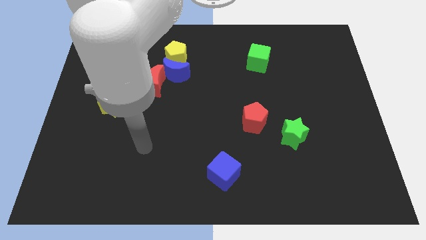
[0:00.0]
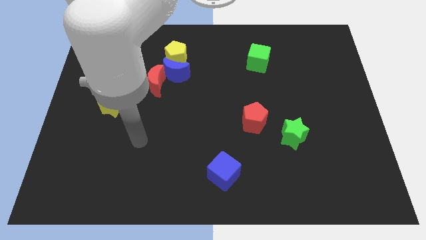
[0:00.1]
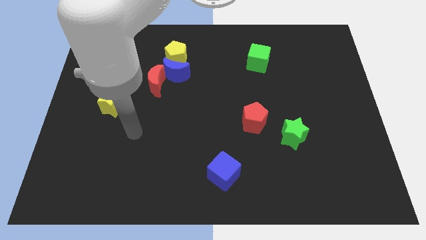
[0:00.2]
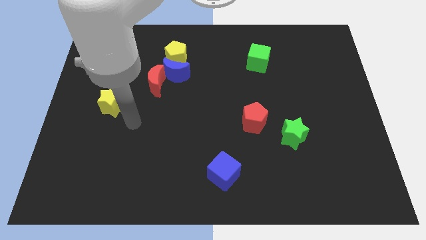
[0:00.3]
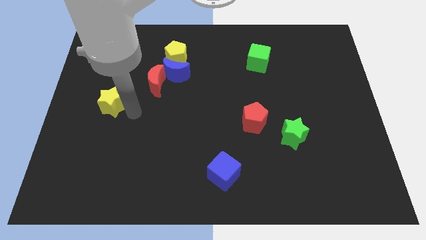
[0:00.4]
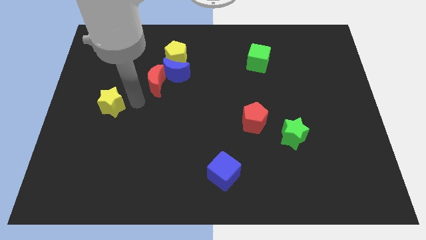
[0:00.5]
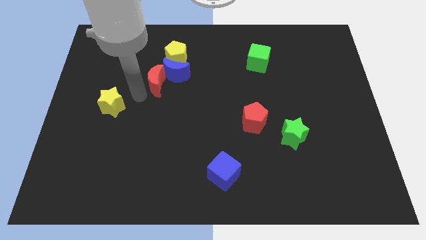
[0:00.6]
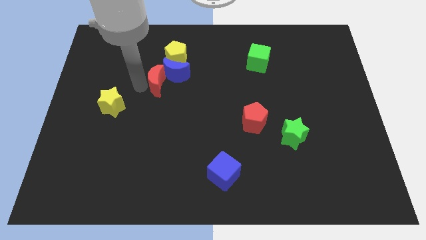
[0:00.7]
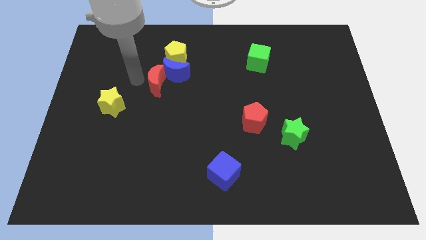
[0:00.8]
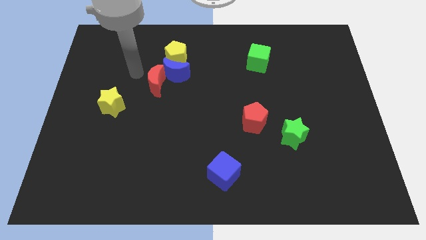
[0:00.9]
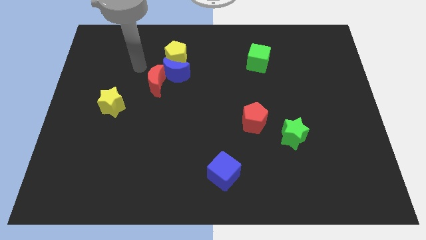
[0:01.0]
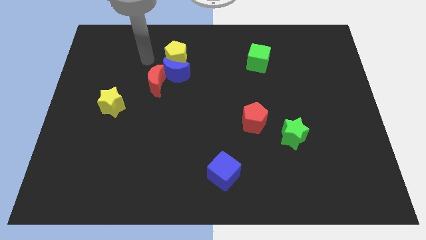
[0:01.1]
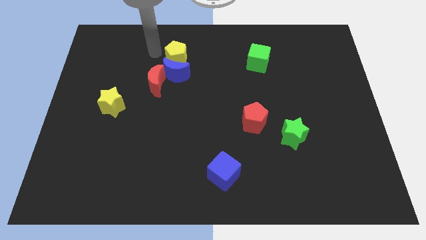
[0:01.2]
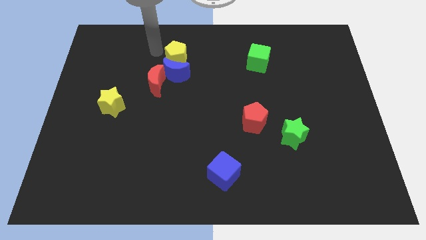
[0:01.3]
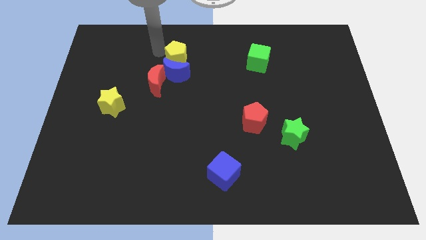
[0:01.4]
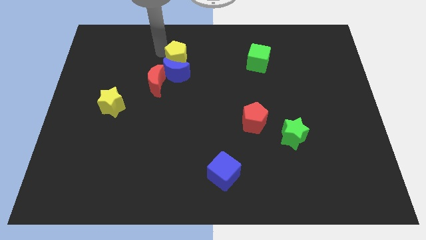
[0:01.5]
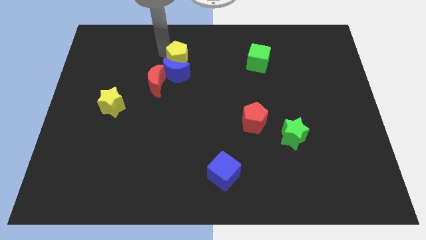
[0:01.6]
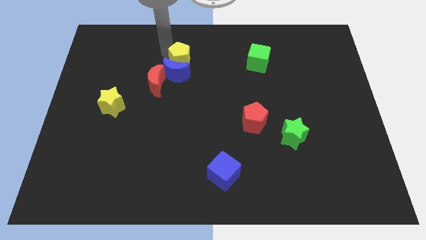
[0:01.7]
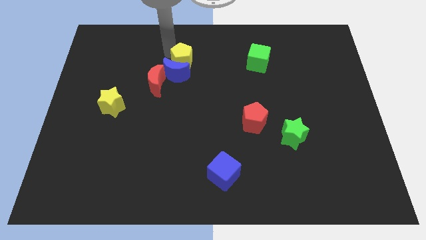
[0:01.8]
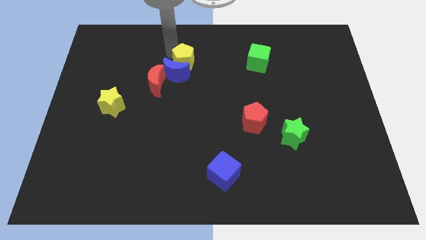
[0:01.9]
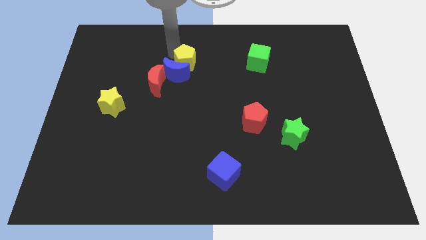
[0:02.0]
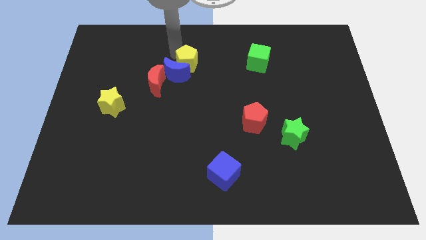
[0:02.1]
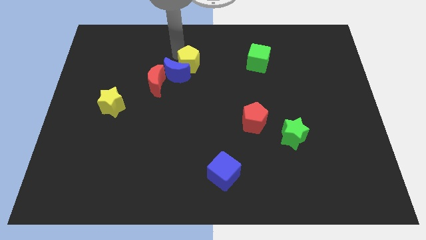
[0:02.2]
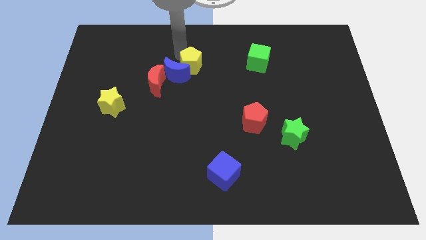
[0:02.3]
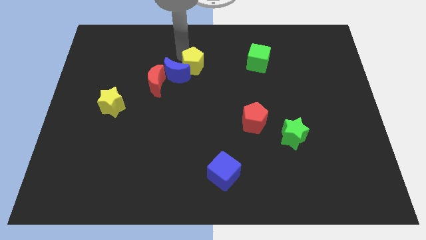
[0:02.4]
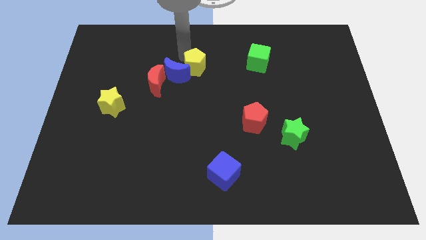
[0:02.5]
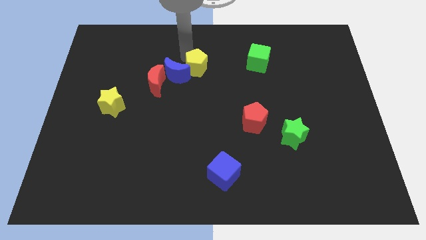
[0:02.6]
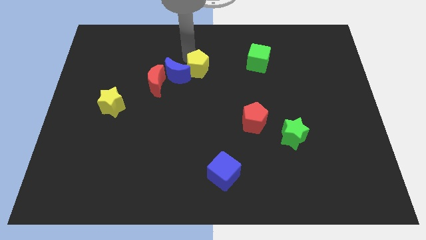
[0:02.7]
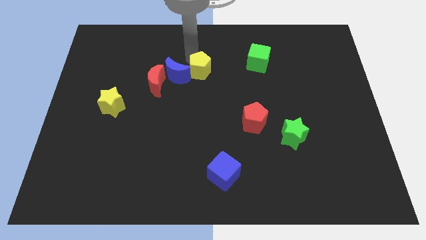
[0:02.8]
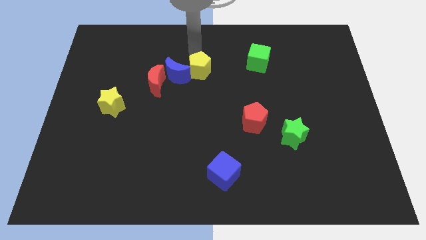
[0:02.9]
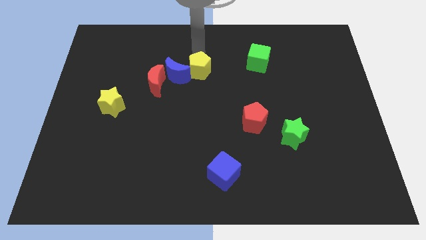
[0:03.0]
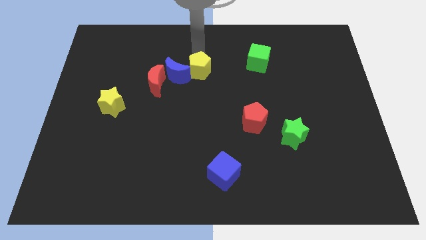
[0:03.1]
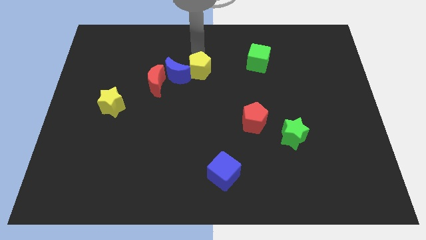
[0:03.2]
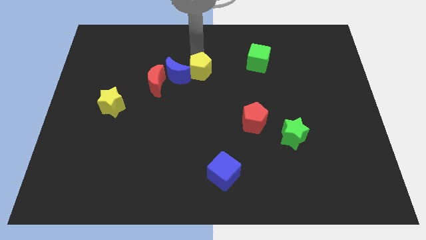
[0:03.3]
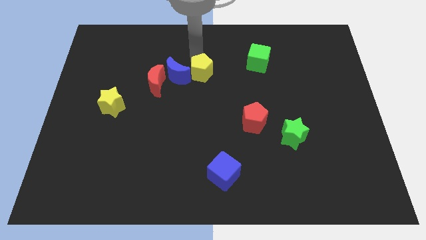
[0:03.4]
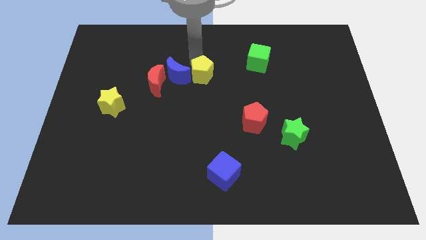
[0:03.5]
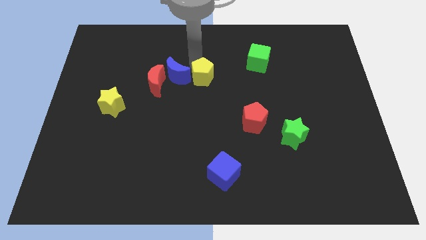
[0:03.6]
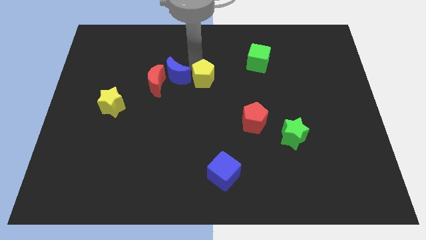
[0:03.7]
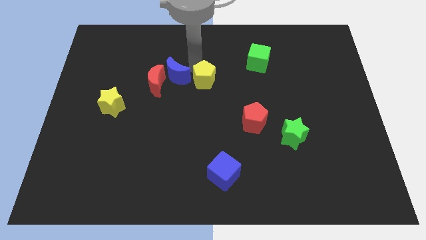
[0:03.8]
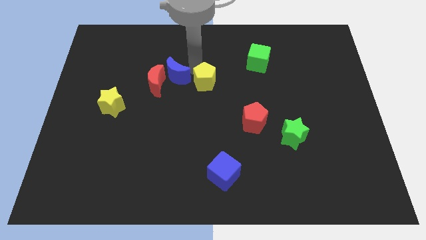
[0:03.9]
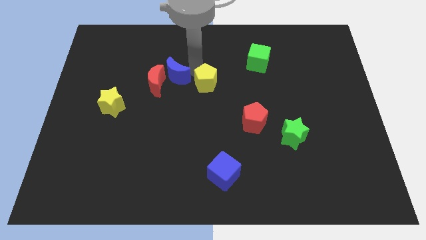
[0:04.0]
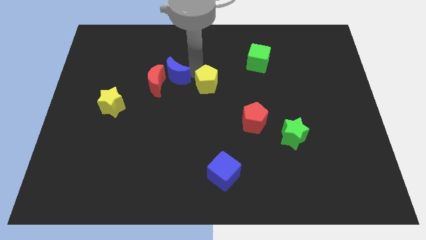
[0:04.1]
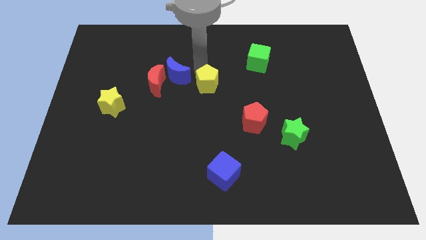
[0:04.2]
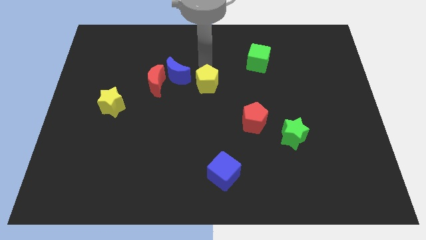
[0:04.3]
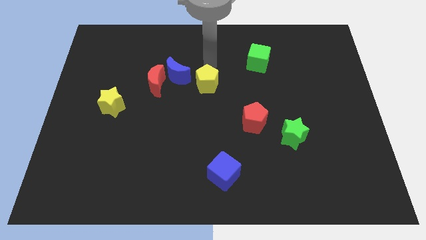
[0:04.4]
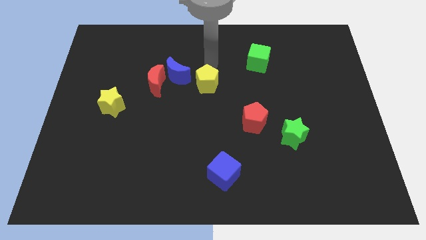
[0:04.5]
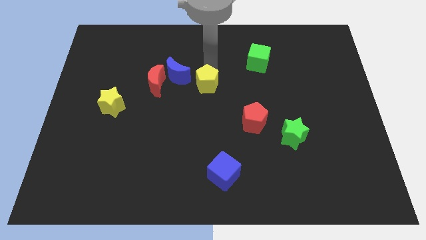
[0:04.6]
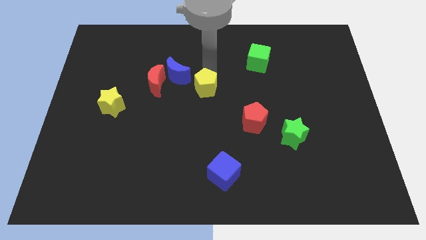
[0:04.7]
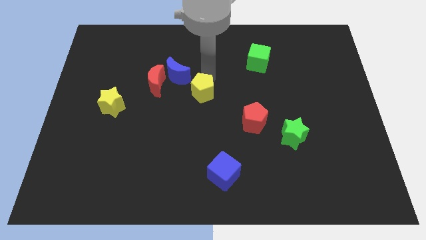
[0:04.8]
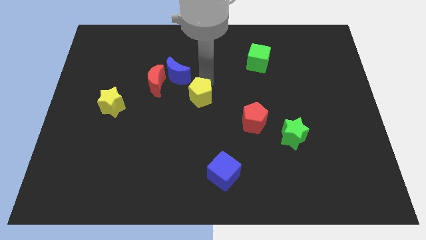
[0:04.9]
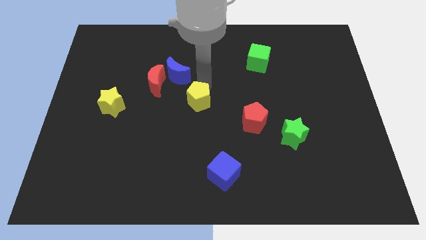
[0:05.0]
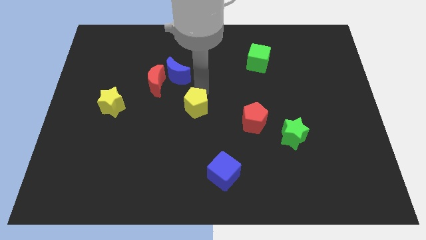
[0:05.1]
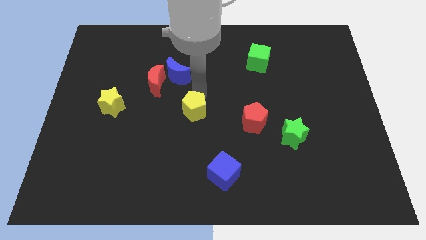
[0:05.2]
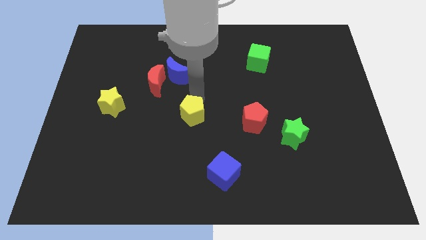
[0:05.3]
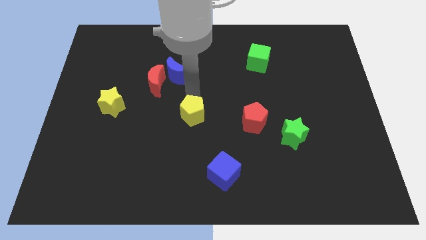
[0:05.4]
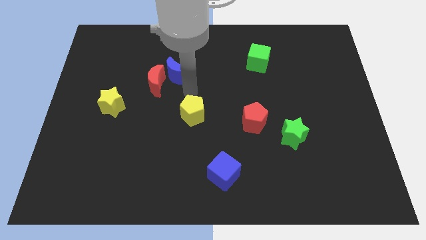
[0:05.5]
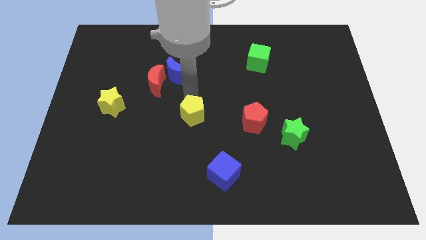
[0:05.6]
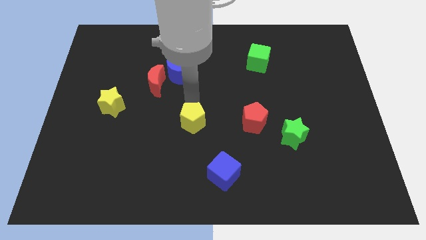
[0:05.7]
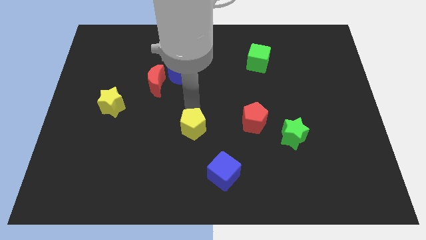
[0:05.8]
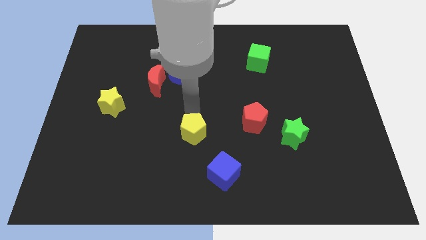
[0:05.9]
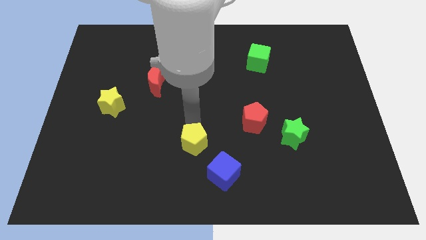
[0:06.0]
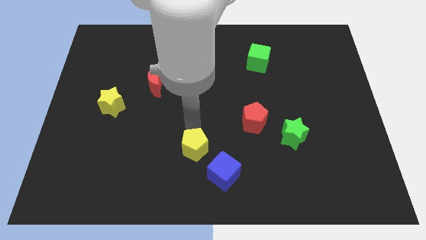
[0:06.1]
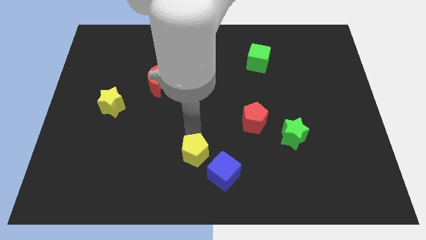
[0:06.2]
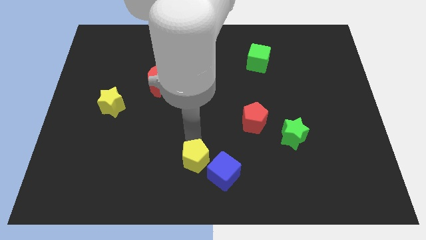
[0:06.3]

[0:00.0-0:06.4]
push the yellow pentagon to the bottom

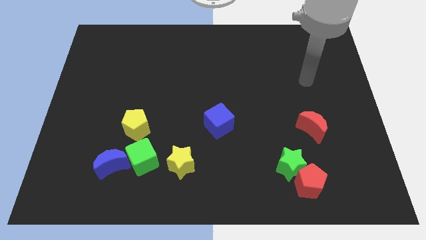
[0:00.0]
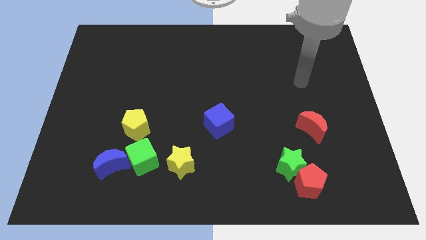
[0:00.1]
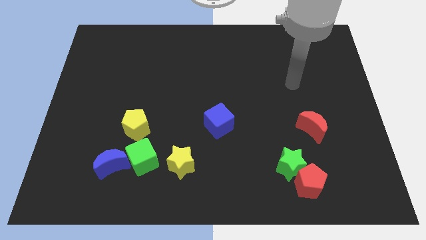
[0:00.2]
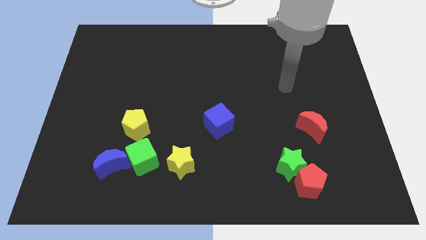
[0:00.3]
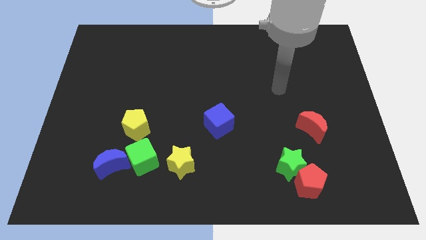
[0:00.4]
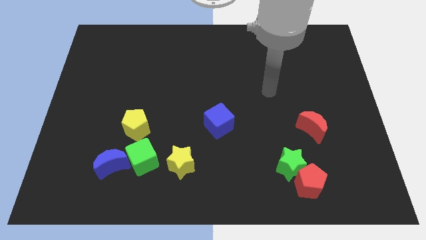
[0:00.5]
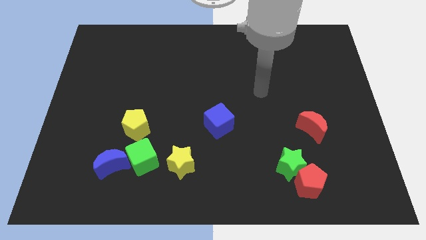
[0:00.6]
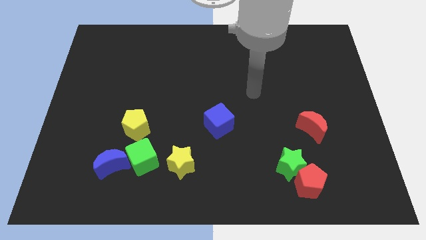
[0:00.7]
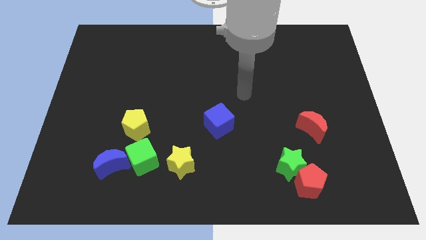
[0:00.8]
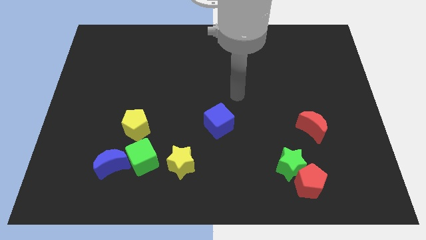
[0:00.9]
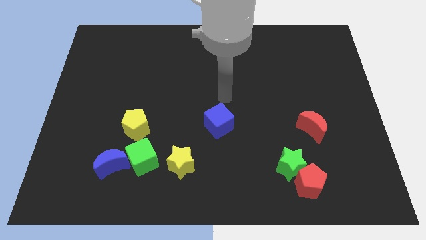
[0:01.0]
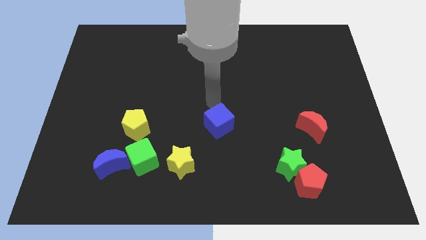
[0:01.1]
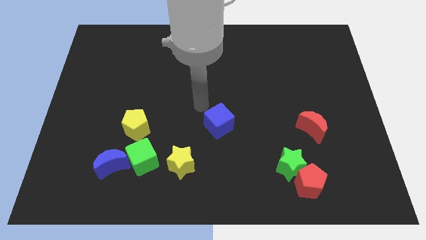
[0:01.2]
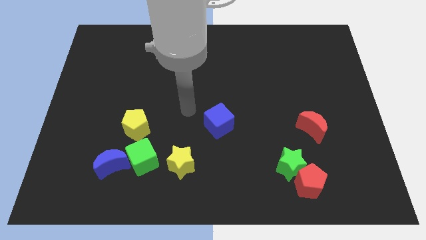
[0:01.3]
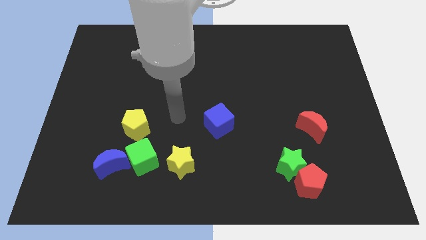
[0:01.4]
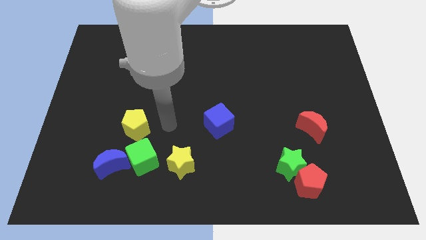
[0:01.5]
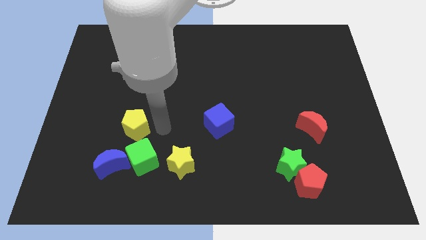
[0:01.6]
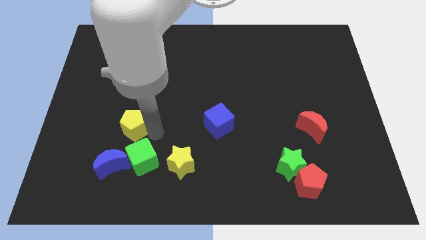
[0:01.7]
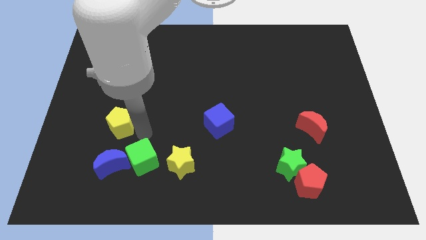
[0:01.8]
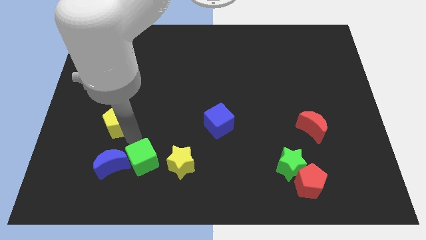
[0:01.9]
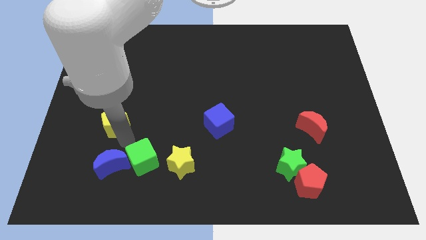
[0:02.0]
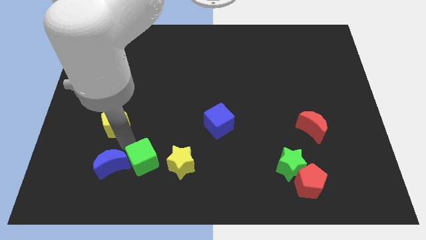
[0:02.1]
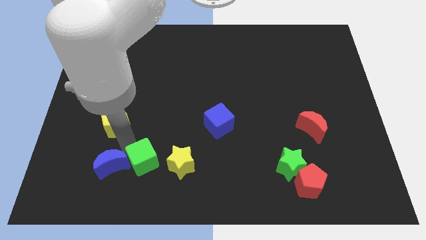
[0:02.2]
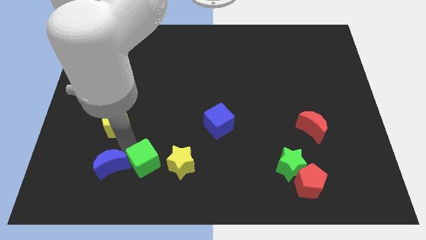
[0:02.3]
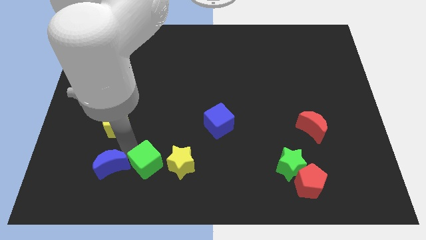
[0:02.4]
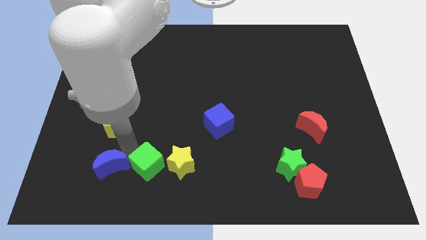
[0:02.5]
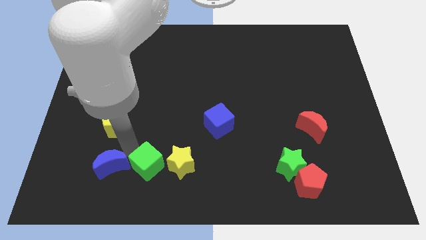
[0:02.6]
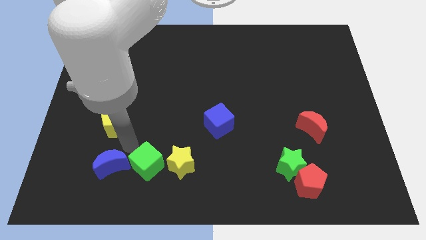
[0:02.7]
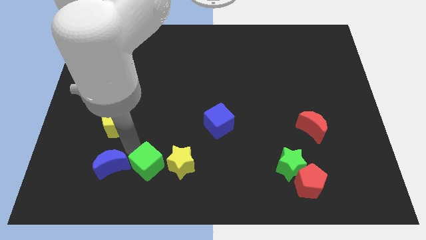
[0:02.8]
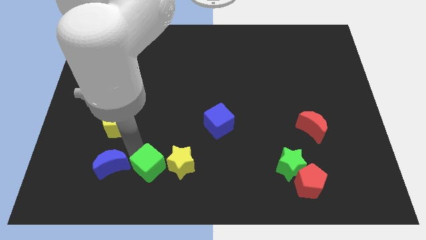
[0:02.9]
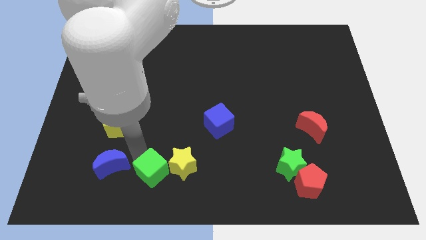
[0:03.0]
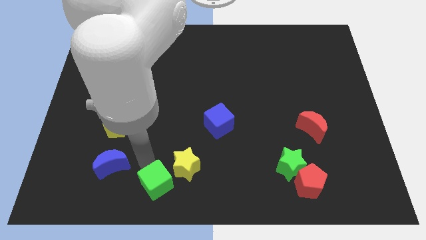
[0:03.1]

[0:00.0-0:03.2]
put the green cube to the bottom
